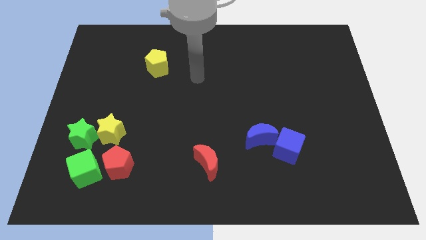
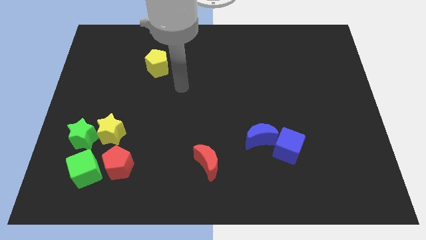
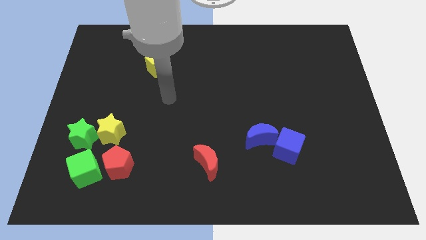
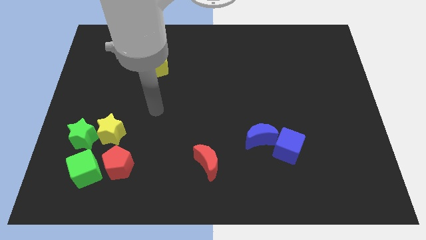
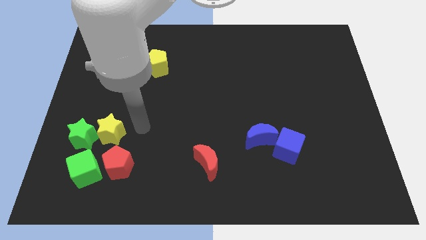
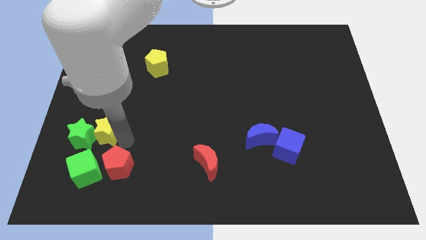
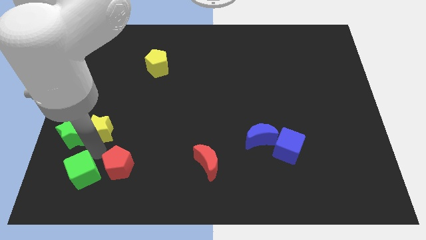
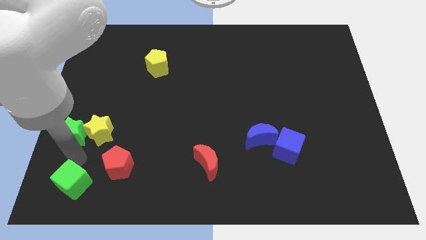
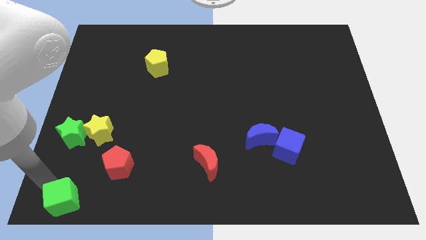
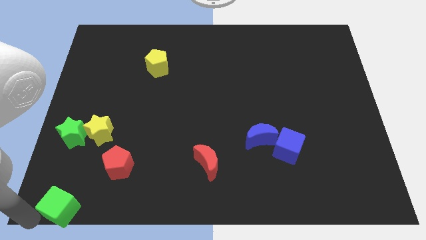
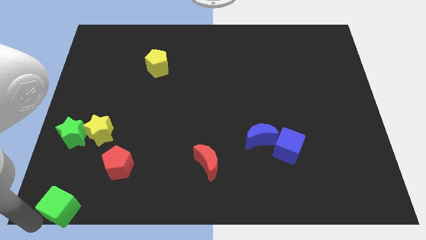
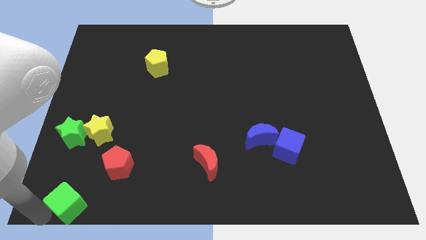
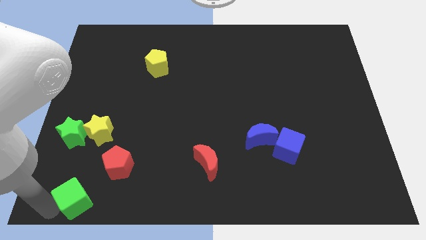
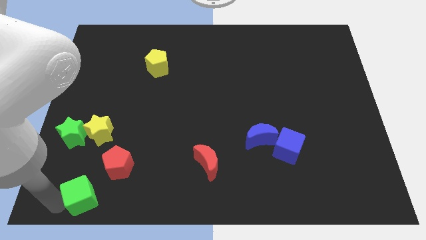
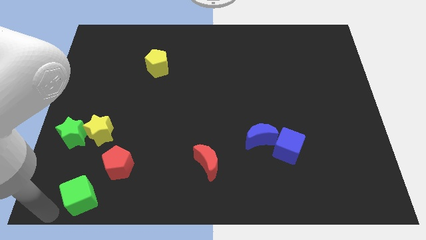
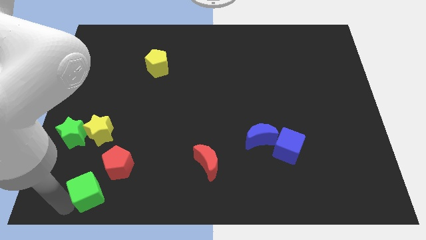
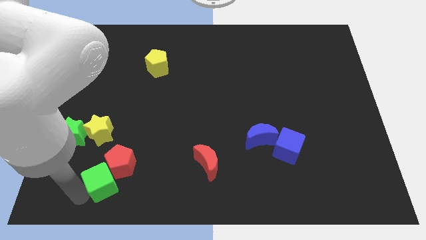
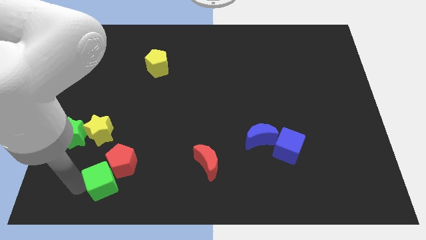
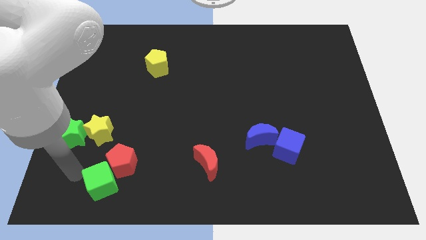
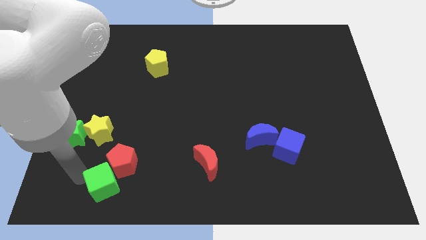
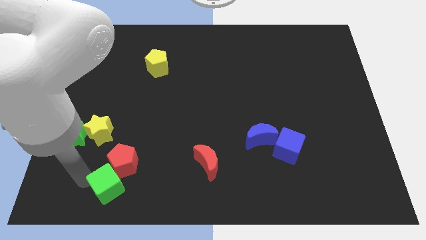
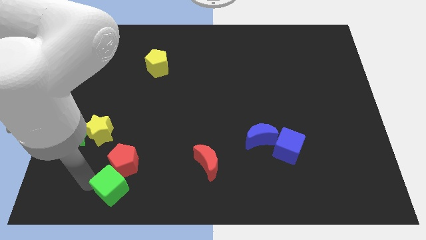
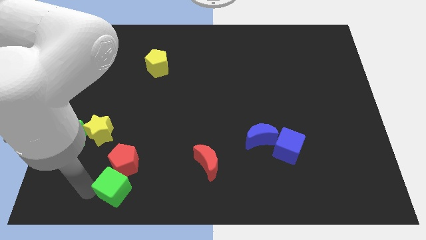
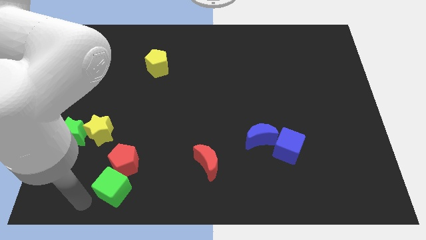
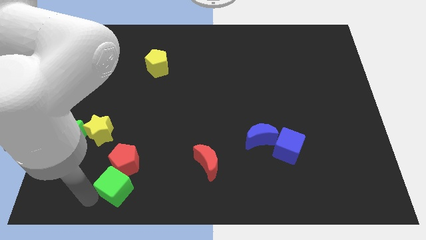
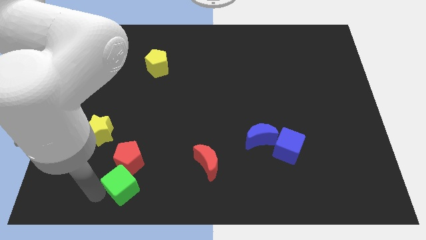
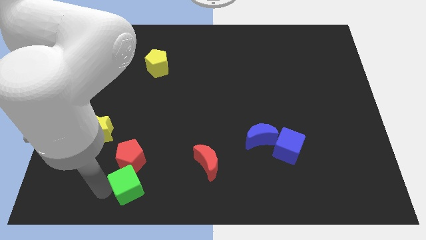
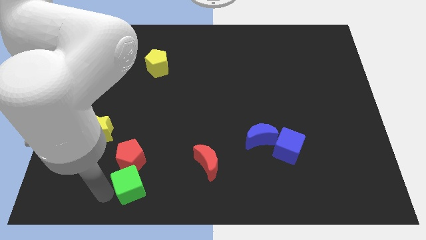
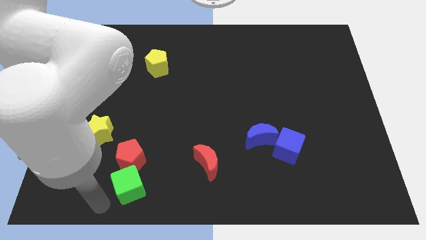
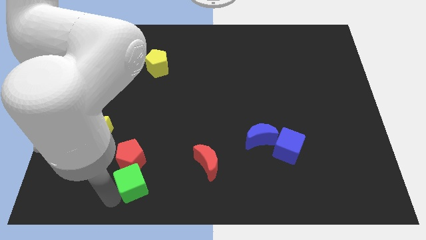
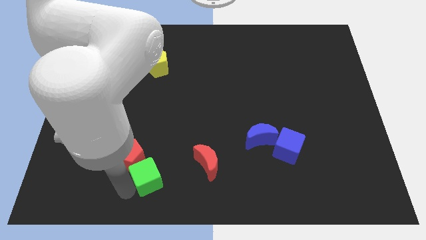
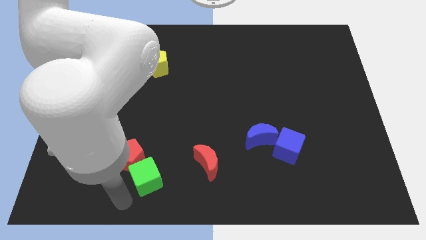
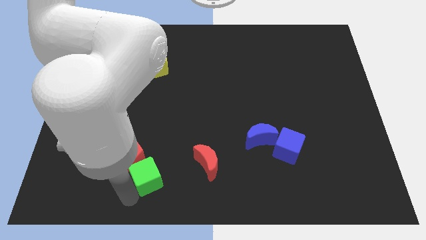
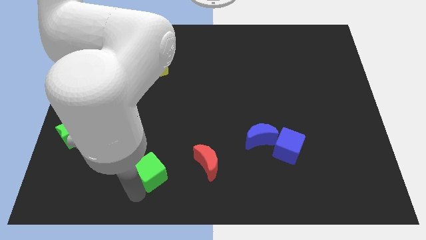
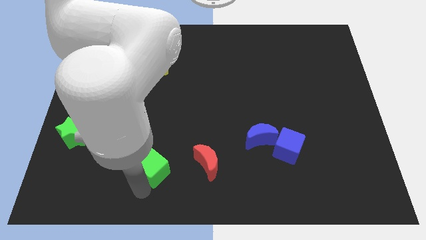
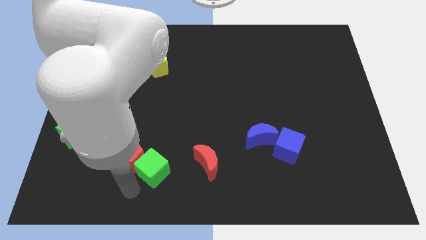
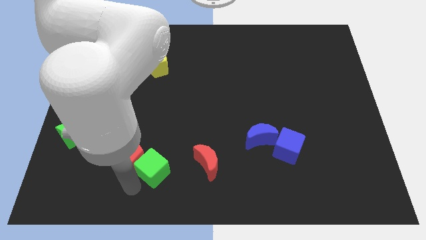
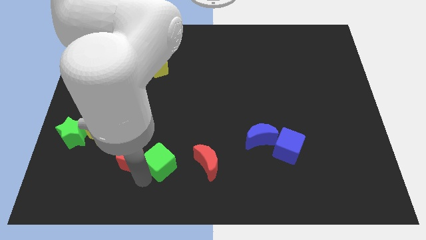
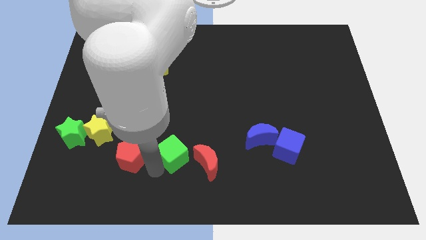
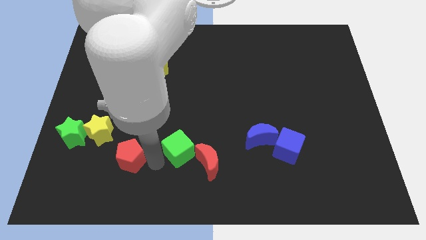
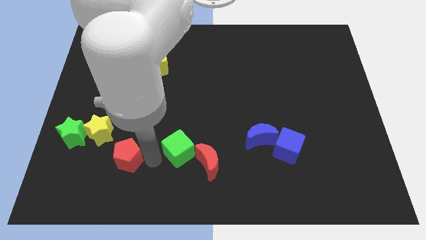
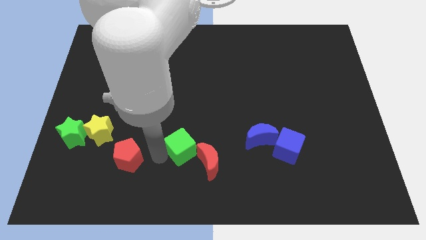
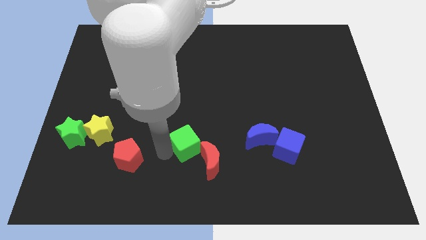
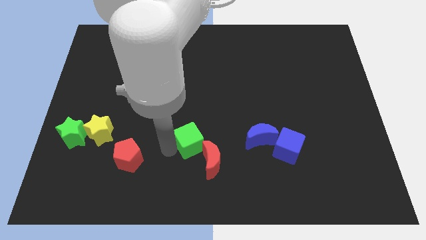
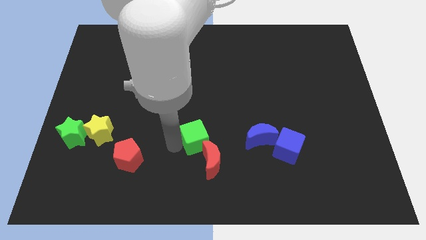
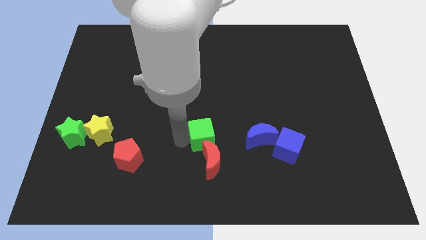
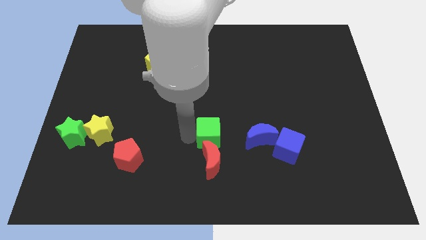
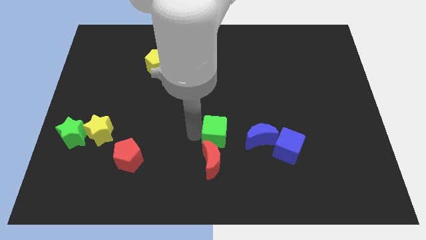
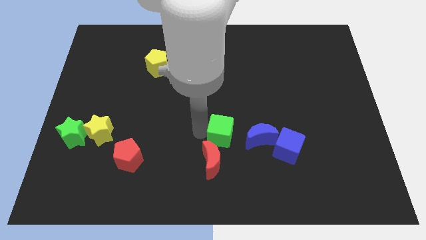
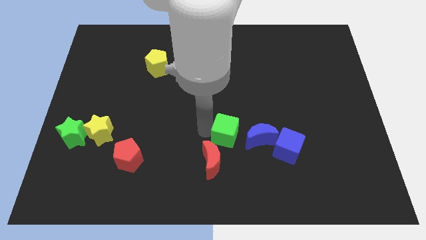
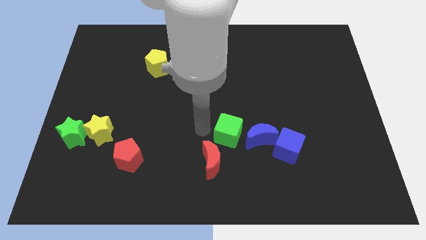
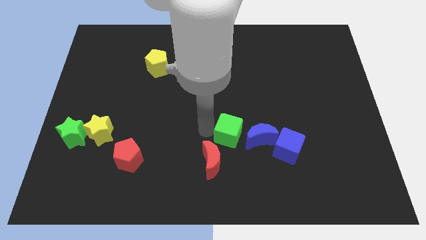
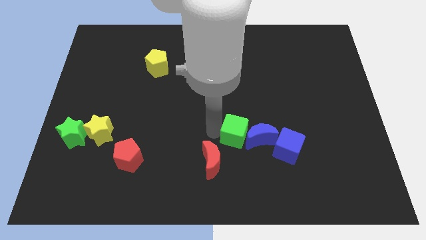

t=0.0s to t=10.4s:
push the green cube to the blue moon

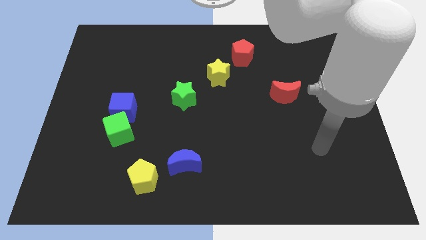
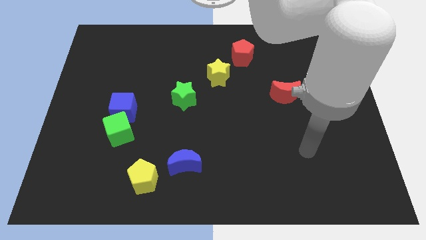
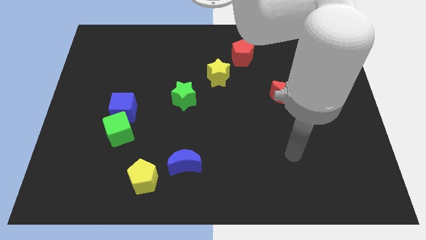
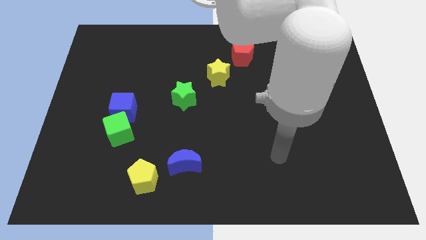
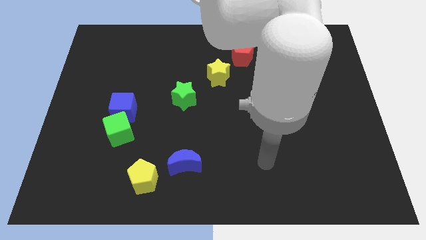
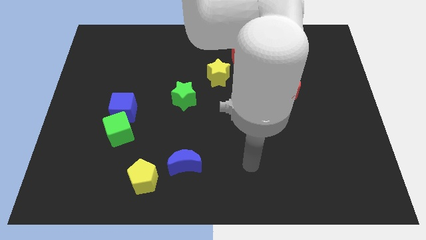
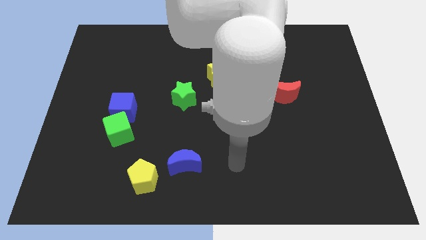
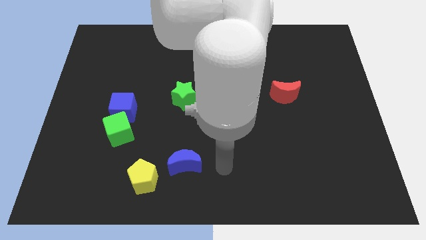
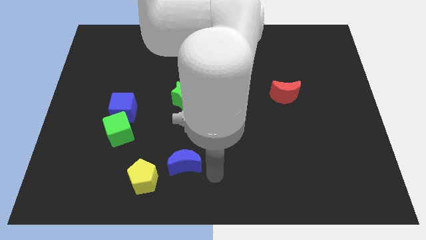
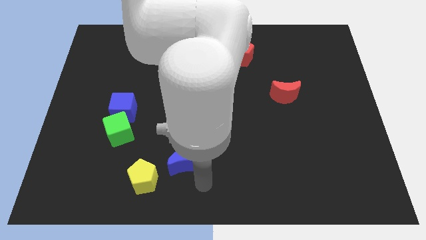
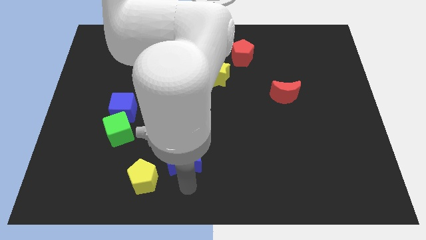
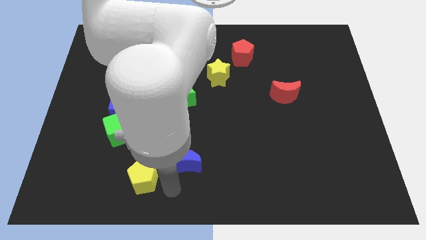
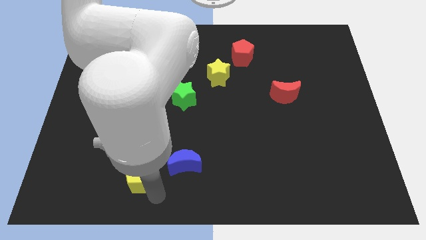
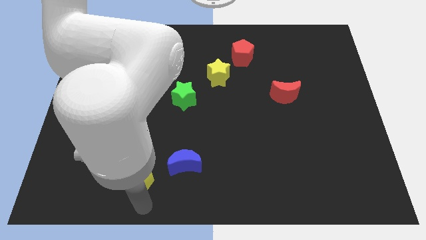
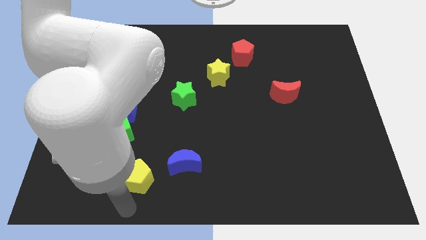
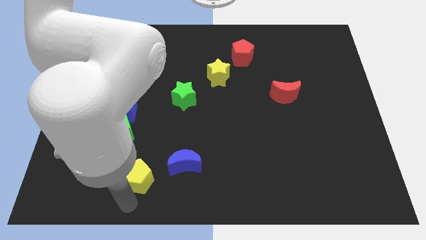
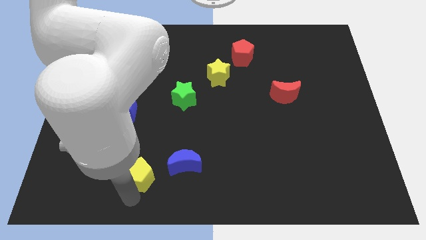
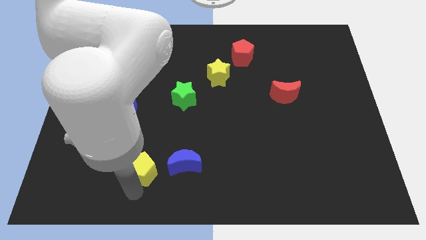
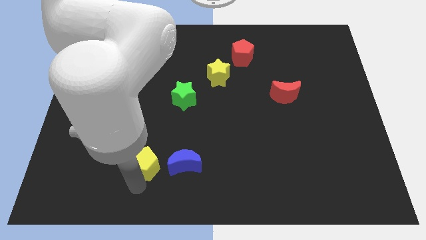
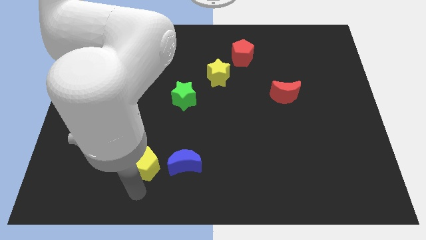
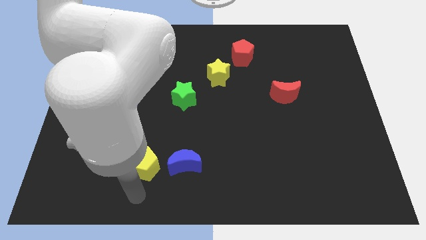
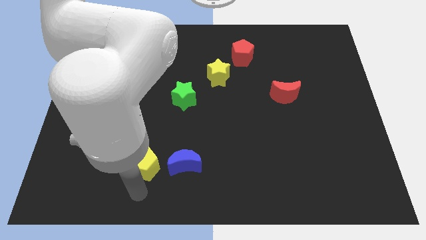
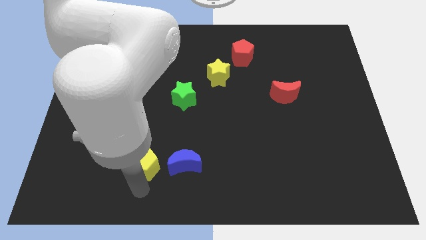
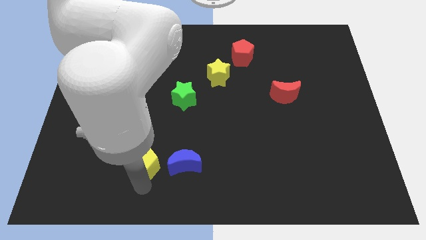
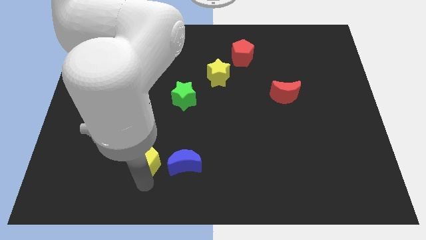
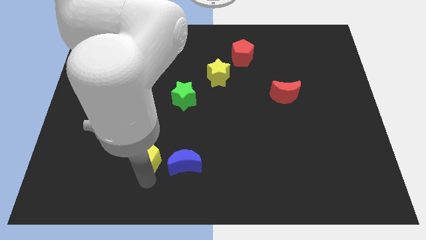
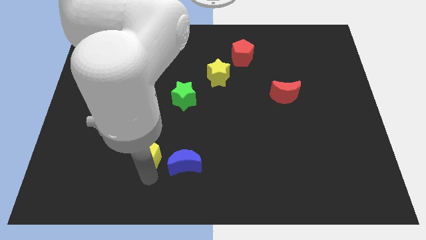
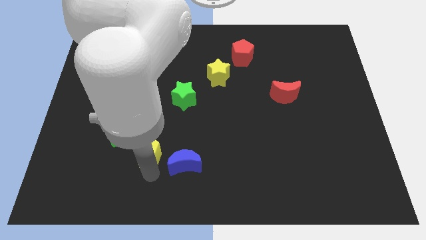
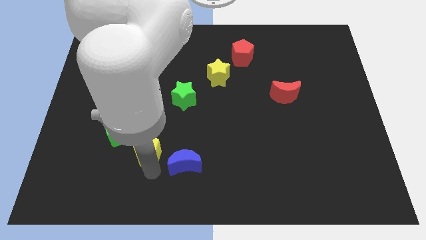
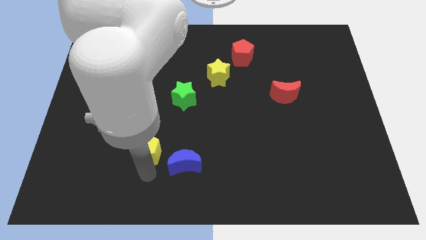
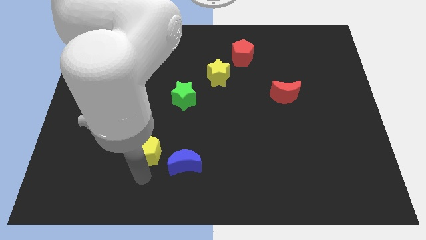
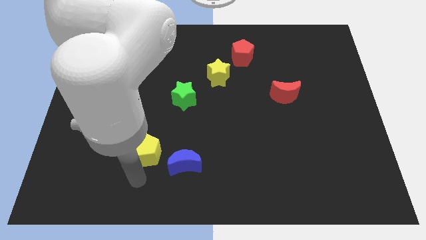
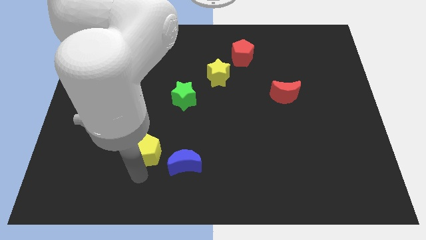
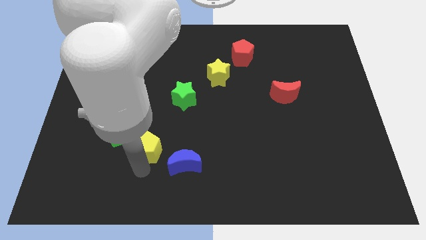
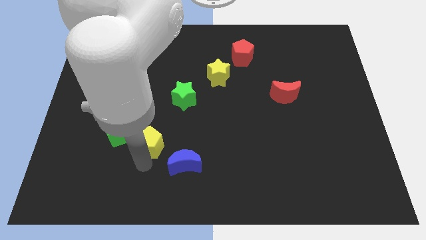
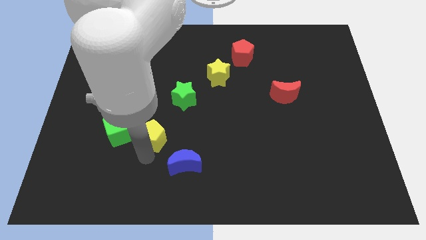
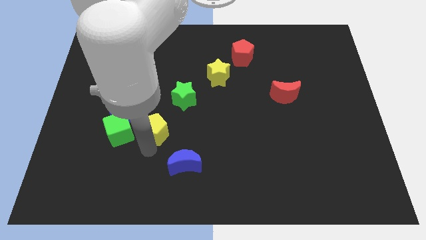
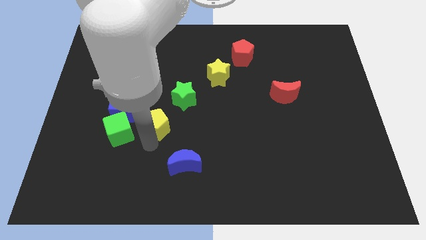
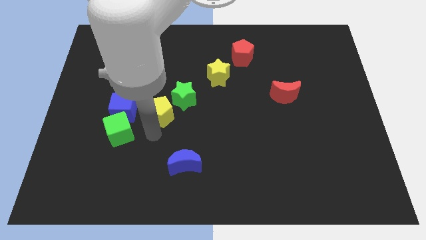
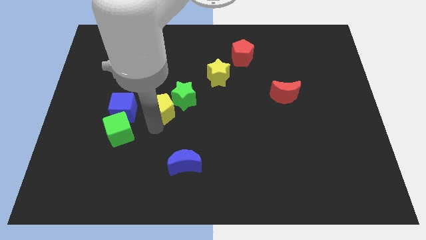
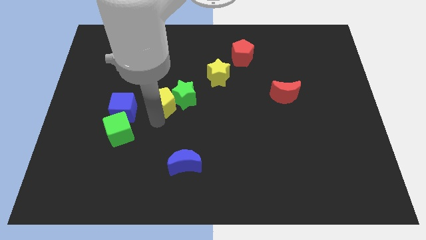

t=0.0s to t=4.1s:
push the yellow pentagon close to the green star
